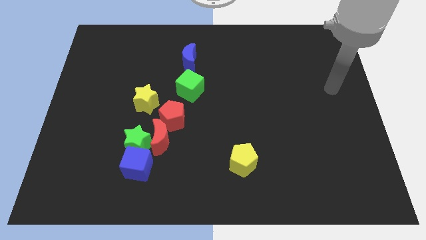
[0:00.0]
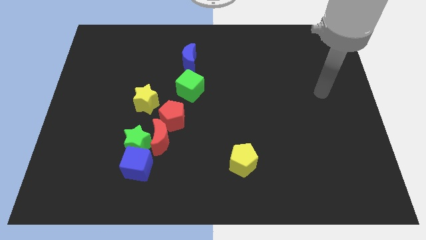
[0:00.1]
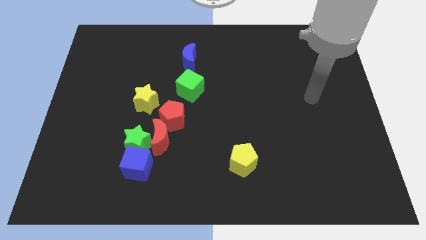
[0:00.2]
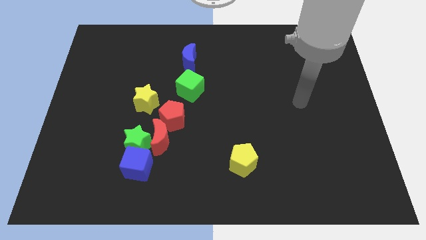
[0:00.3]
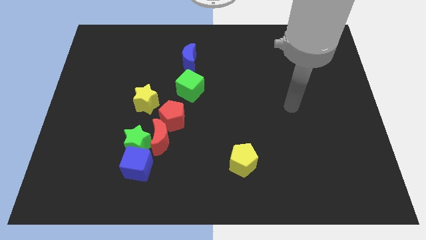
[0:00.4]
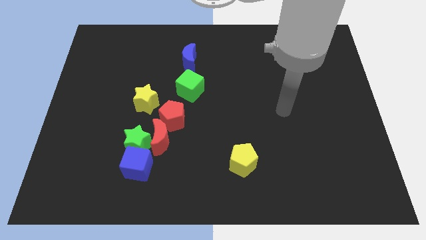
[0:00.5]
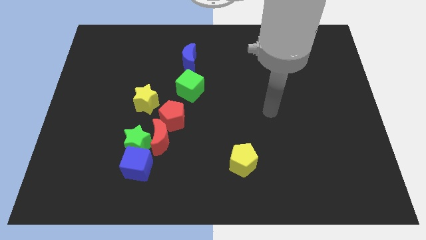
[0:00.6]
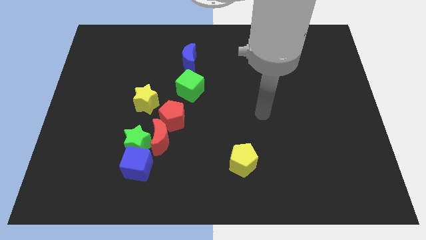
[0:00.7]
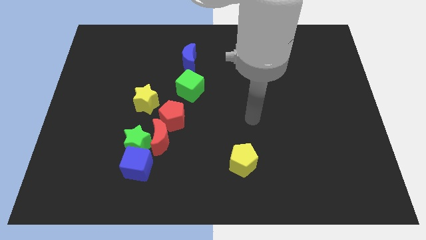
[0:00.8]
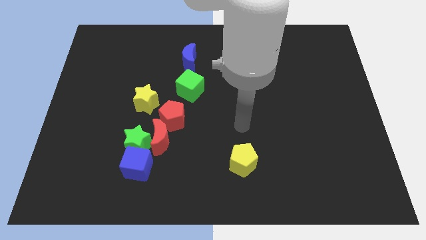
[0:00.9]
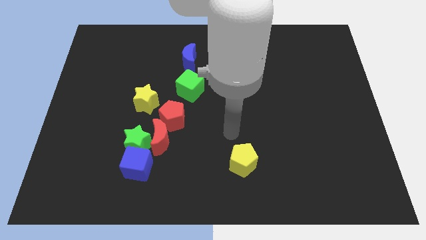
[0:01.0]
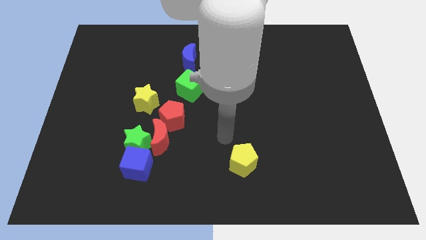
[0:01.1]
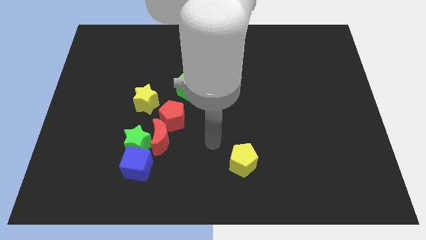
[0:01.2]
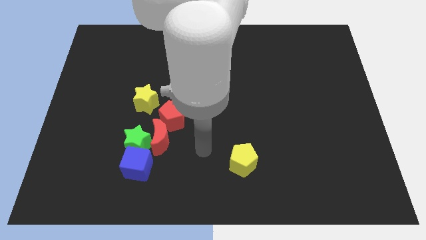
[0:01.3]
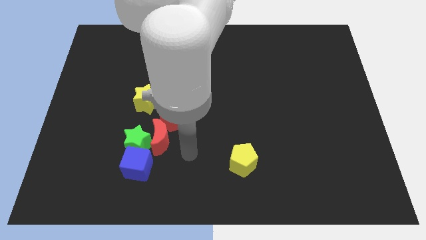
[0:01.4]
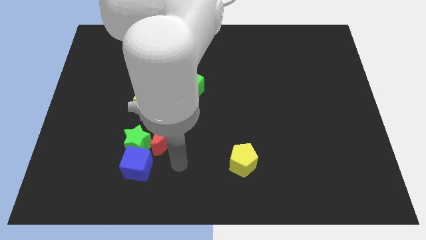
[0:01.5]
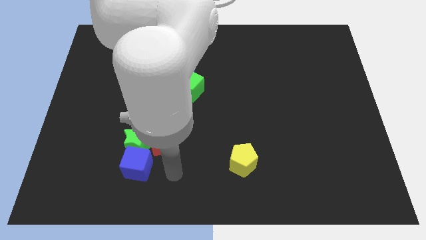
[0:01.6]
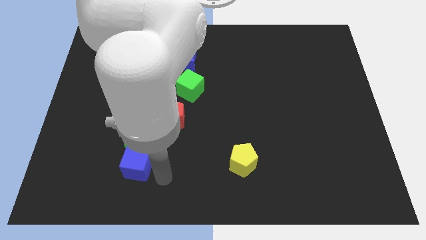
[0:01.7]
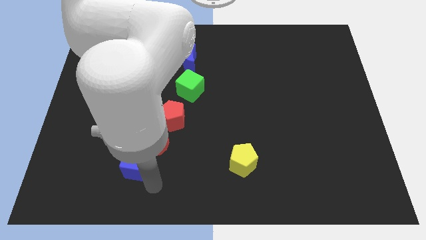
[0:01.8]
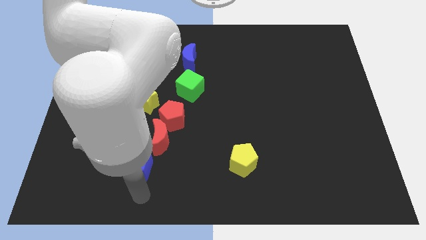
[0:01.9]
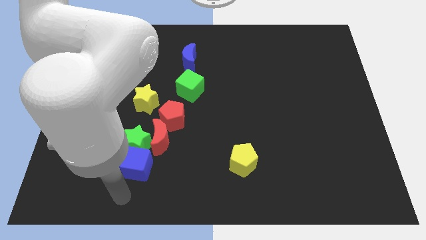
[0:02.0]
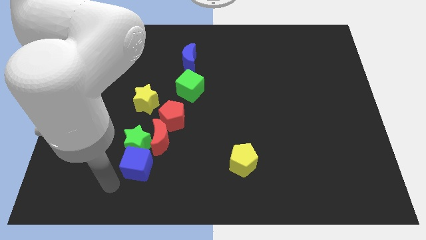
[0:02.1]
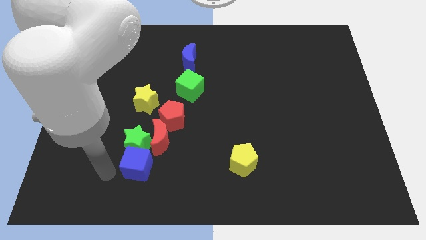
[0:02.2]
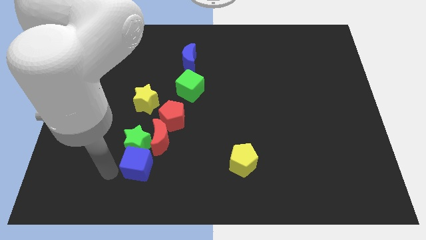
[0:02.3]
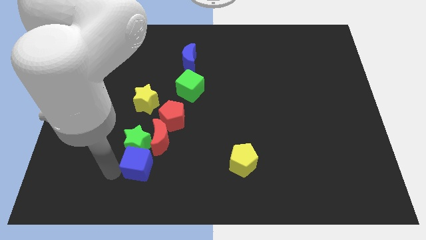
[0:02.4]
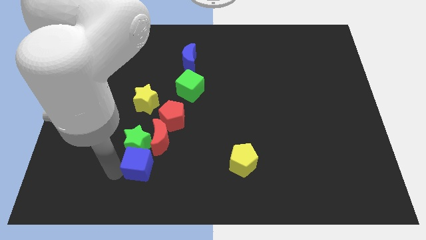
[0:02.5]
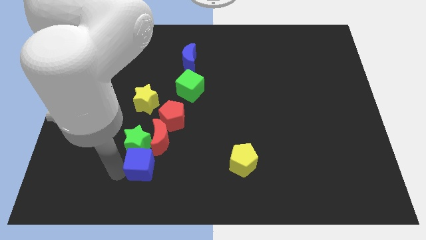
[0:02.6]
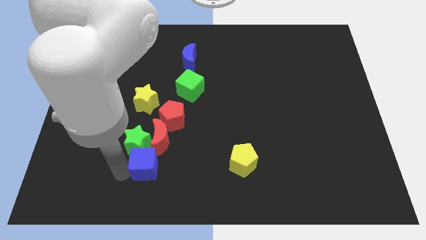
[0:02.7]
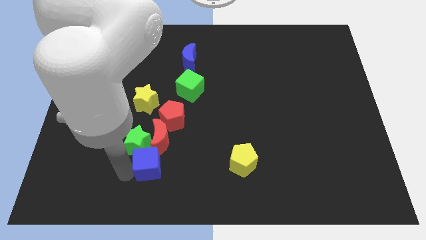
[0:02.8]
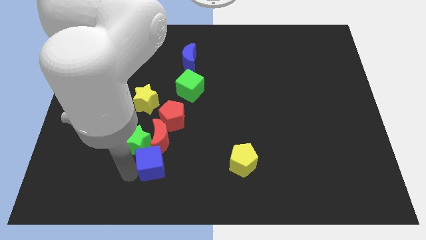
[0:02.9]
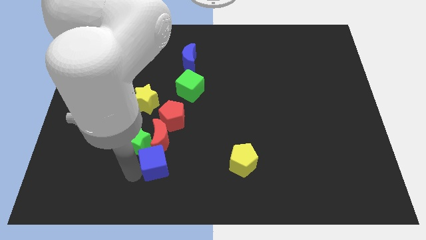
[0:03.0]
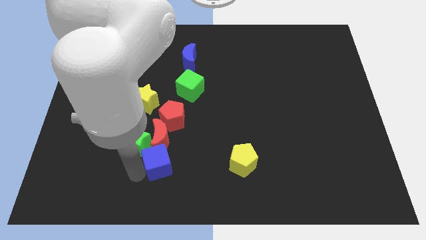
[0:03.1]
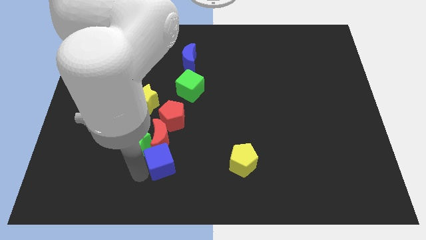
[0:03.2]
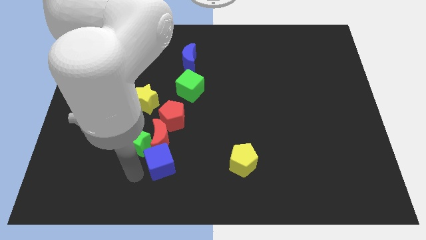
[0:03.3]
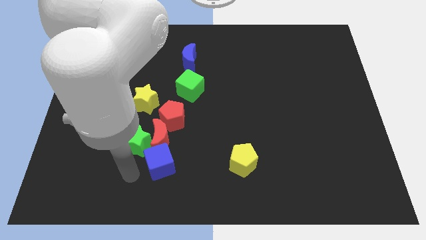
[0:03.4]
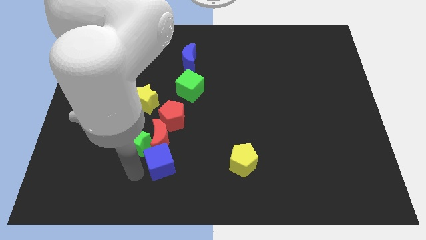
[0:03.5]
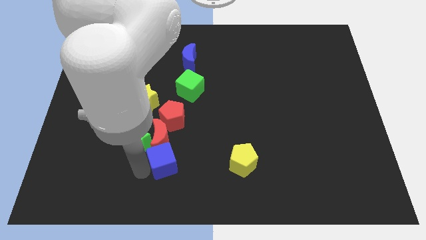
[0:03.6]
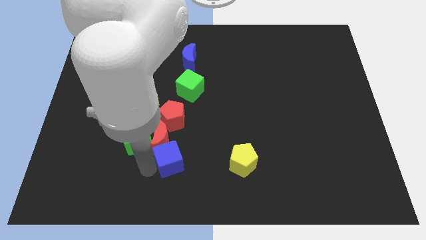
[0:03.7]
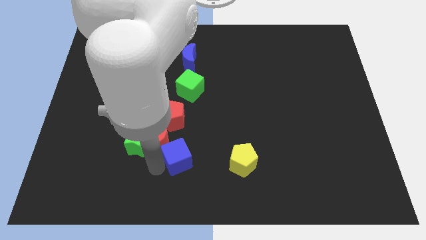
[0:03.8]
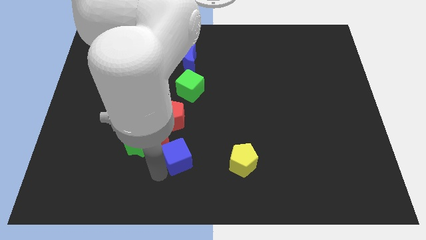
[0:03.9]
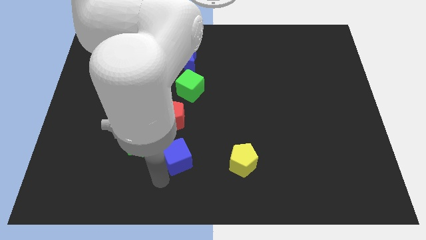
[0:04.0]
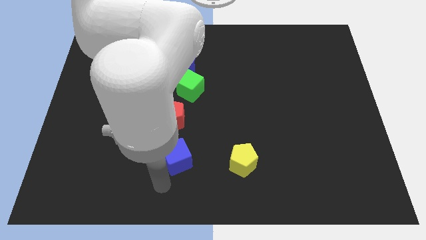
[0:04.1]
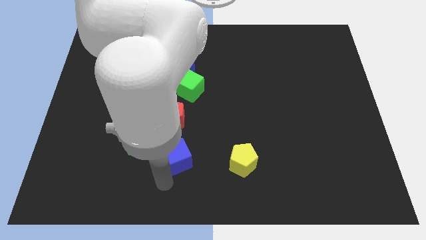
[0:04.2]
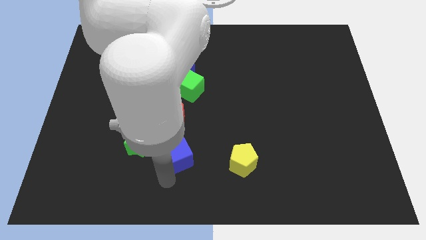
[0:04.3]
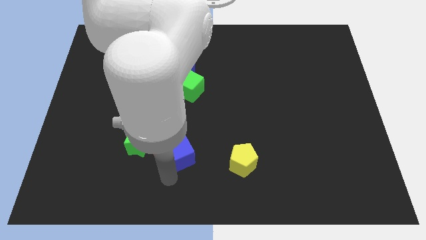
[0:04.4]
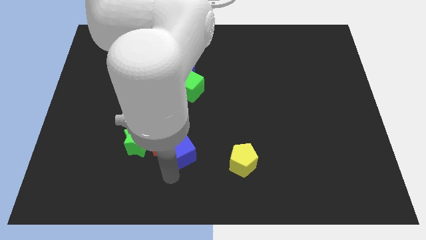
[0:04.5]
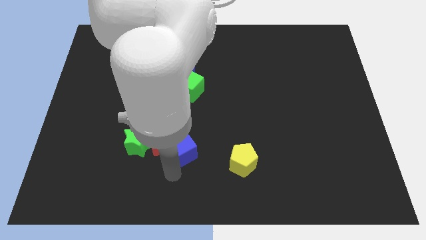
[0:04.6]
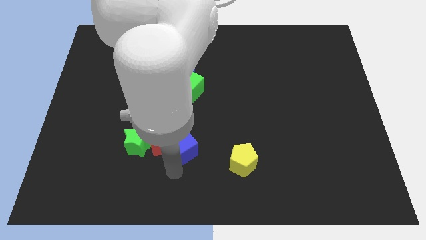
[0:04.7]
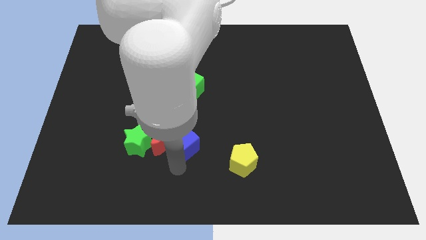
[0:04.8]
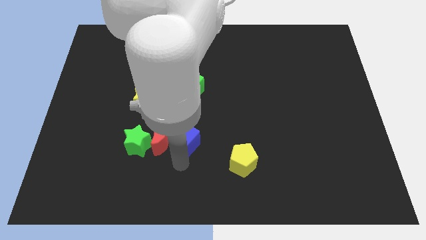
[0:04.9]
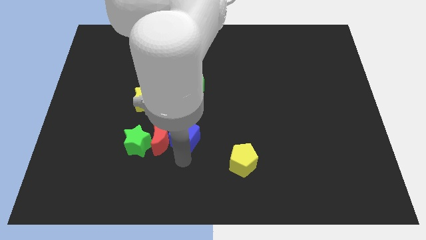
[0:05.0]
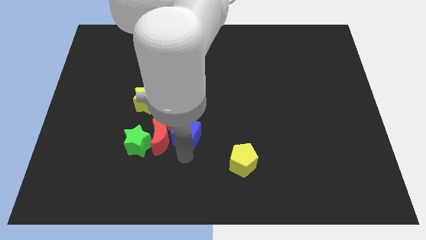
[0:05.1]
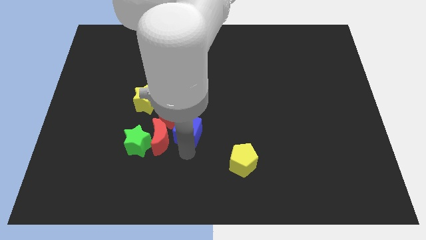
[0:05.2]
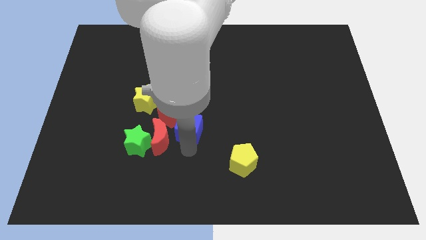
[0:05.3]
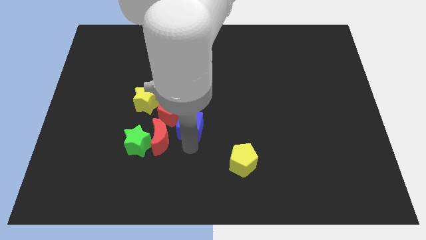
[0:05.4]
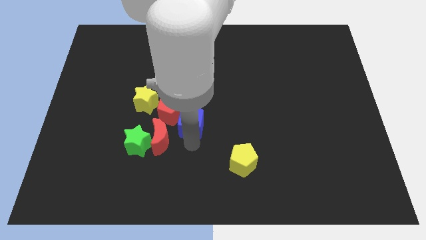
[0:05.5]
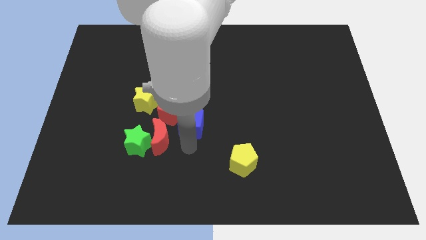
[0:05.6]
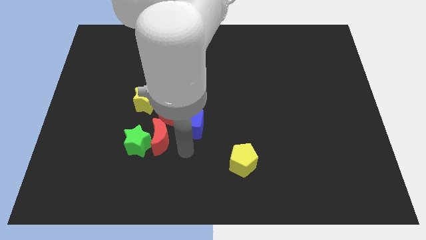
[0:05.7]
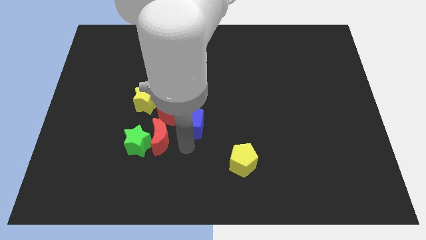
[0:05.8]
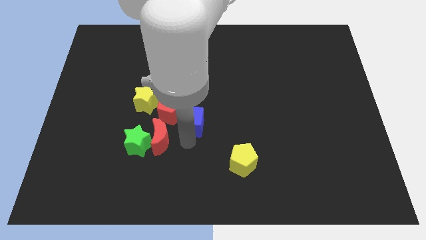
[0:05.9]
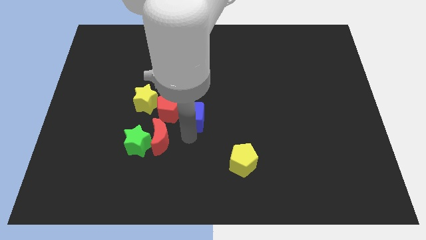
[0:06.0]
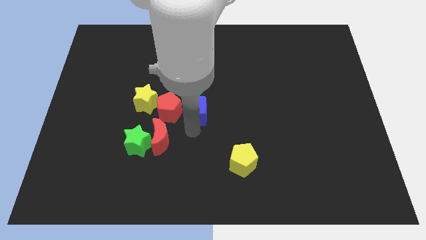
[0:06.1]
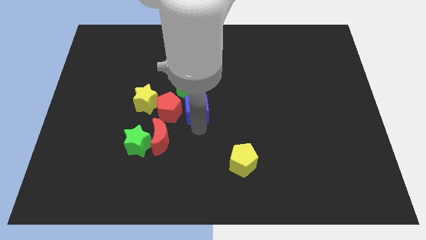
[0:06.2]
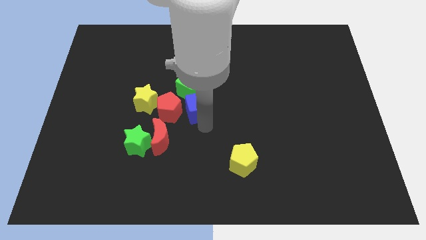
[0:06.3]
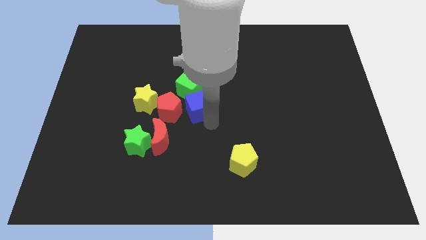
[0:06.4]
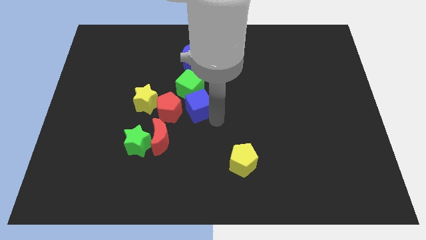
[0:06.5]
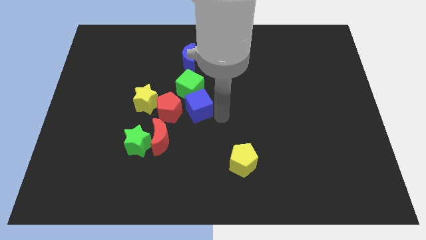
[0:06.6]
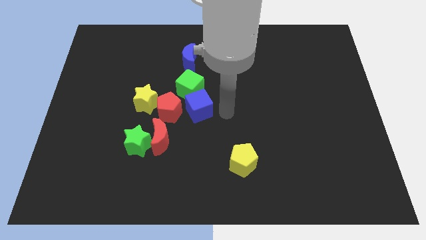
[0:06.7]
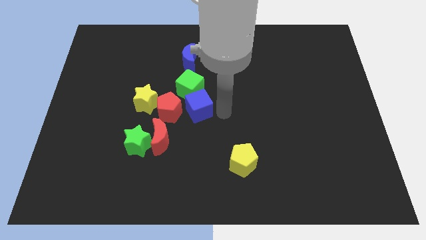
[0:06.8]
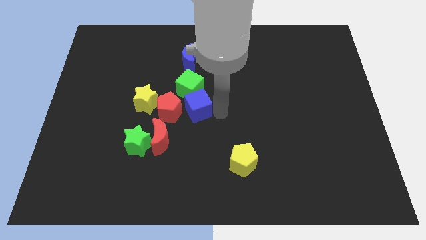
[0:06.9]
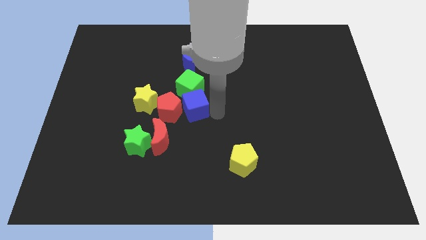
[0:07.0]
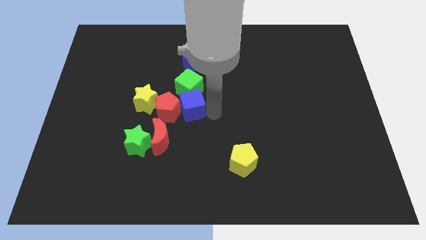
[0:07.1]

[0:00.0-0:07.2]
move the blue cube to the bottom left side of the green cube
